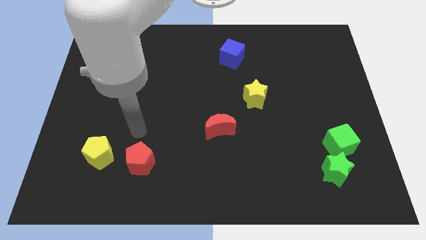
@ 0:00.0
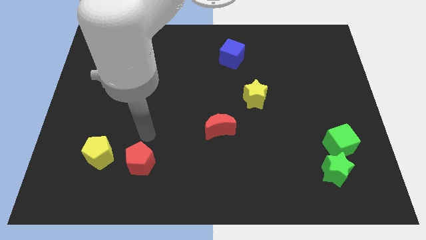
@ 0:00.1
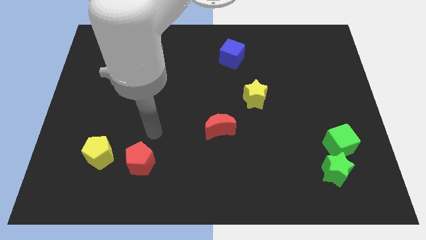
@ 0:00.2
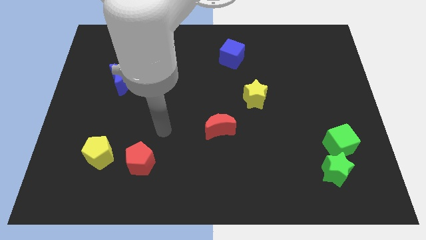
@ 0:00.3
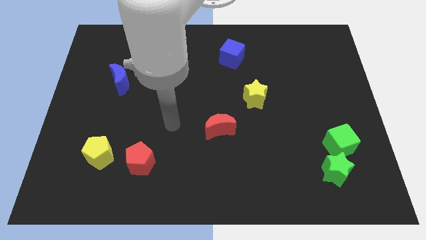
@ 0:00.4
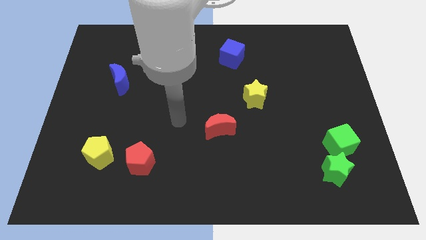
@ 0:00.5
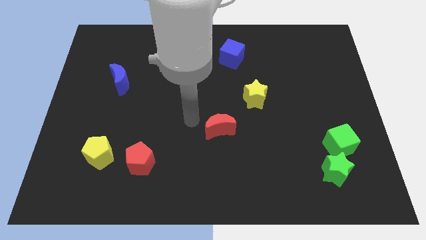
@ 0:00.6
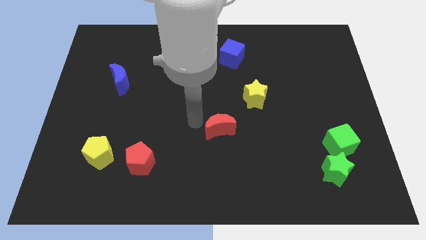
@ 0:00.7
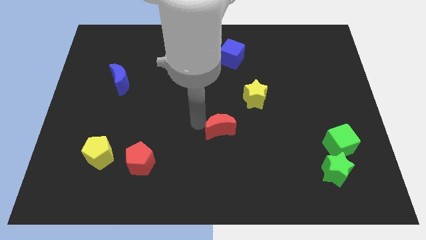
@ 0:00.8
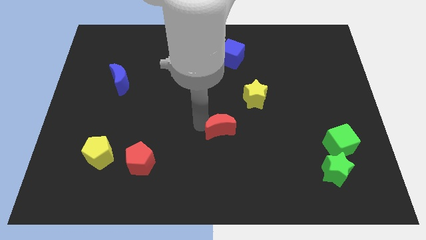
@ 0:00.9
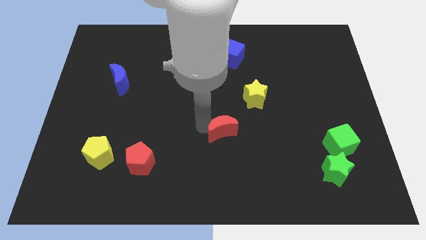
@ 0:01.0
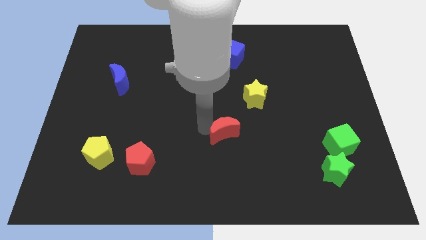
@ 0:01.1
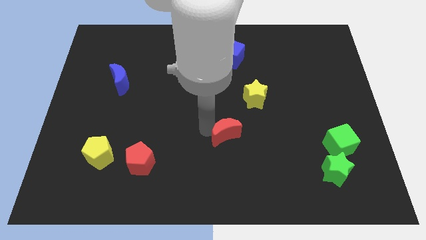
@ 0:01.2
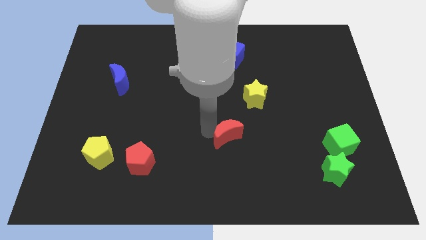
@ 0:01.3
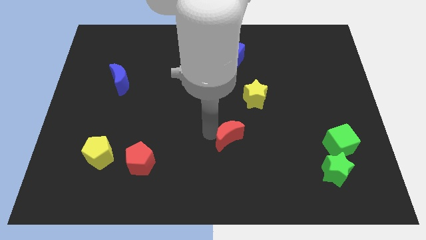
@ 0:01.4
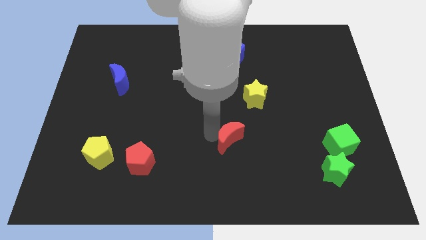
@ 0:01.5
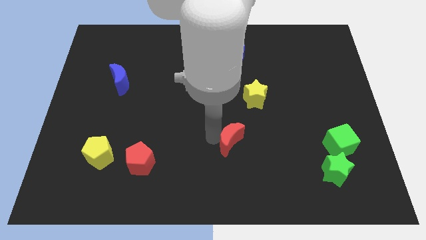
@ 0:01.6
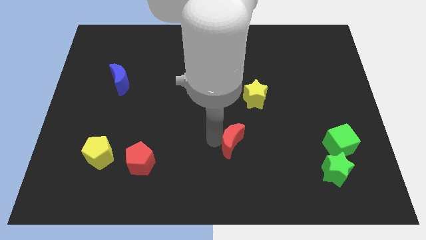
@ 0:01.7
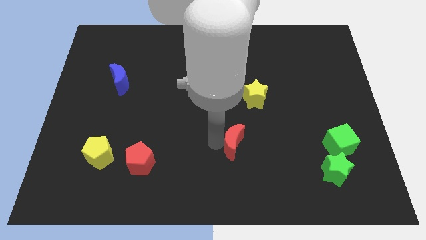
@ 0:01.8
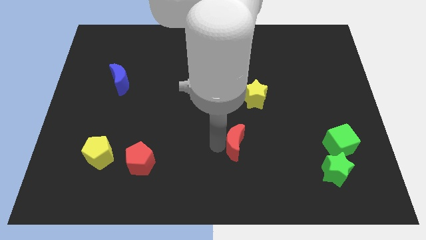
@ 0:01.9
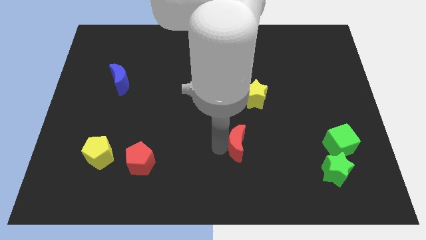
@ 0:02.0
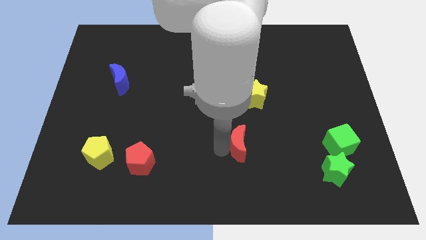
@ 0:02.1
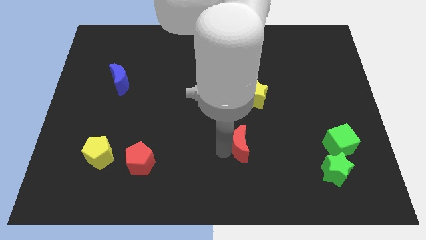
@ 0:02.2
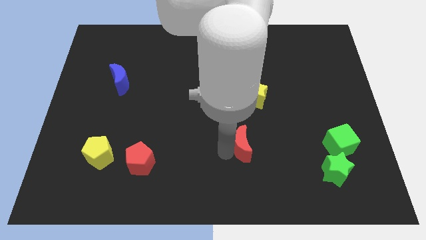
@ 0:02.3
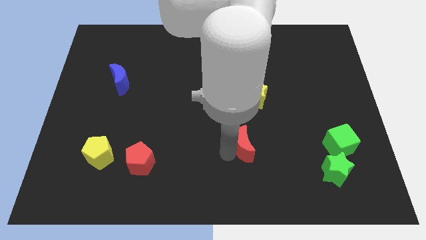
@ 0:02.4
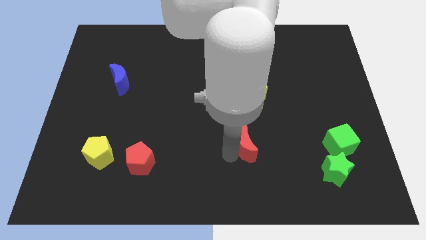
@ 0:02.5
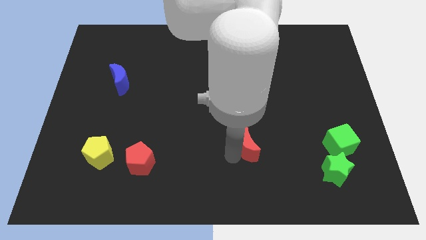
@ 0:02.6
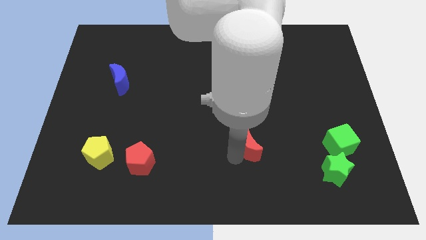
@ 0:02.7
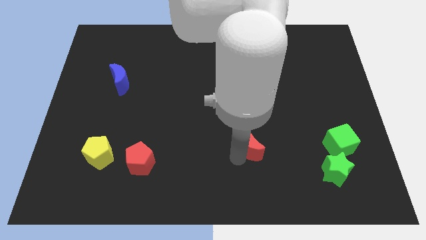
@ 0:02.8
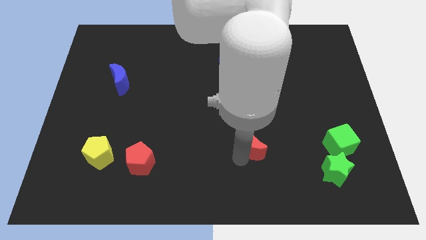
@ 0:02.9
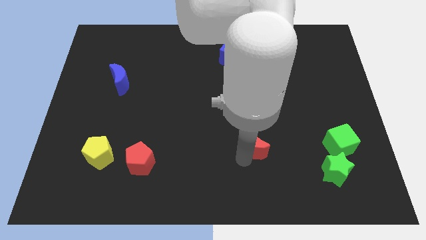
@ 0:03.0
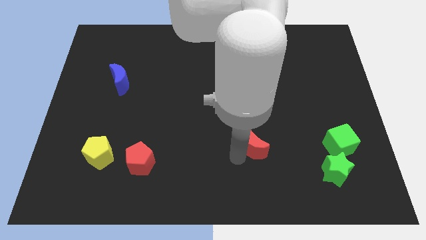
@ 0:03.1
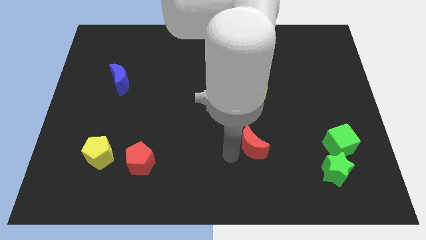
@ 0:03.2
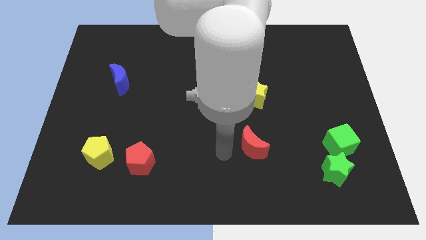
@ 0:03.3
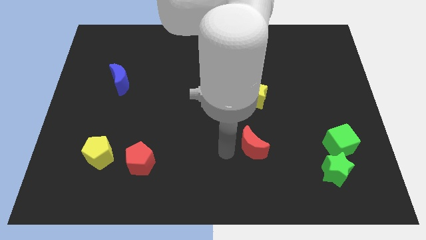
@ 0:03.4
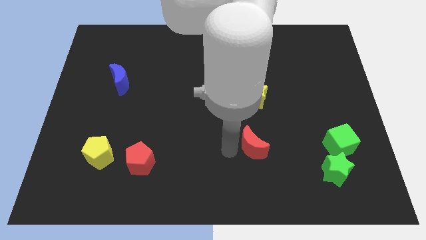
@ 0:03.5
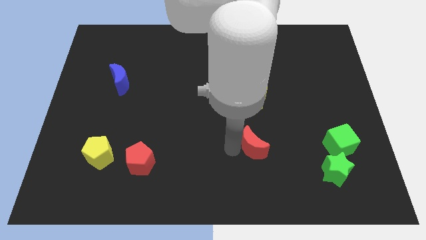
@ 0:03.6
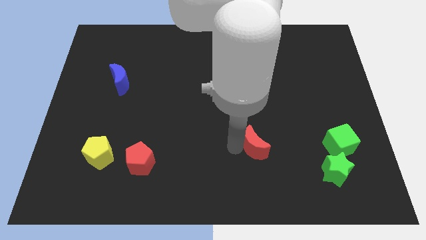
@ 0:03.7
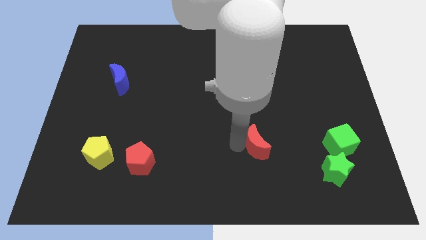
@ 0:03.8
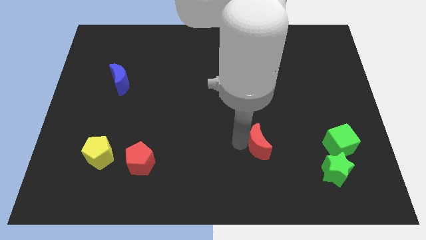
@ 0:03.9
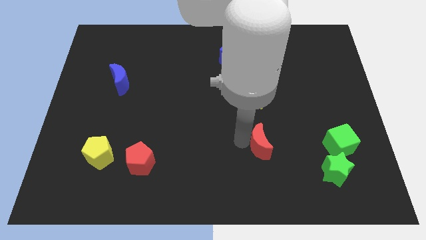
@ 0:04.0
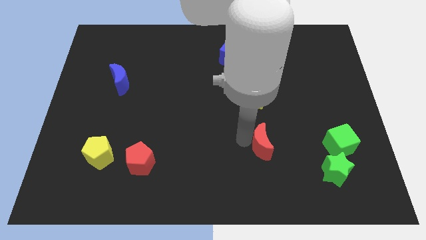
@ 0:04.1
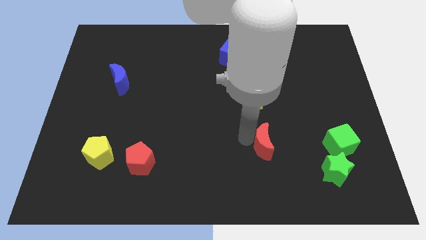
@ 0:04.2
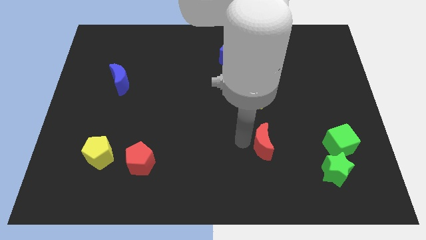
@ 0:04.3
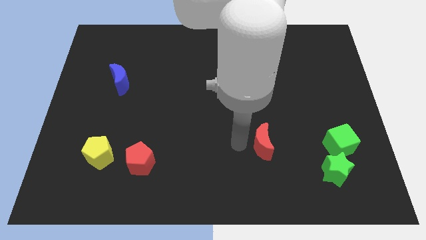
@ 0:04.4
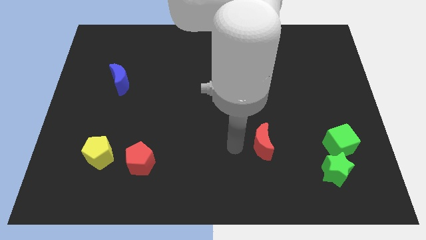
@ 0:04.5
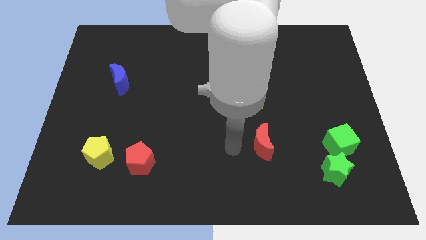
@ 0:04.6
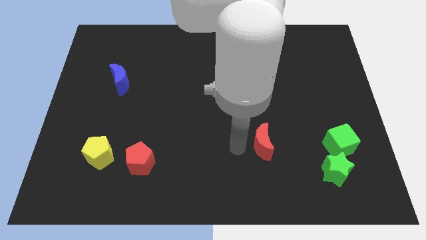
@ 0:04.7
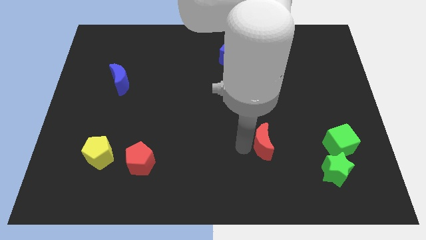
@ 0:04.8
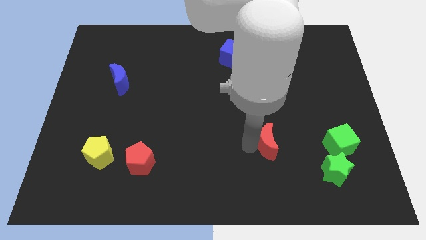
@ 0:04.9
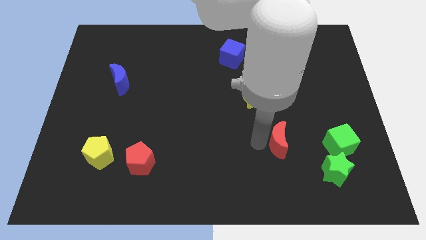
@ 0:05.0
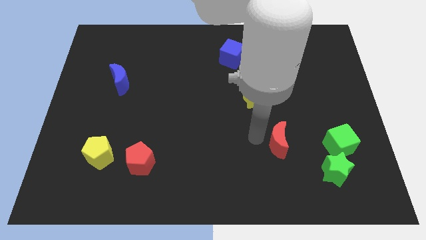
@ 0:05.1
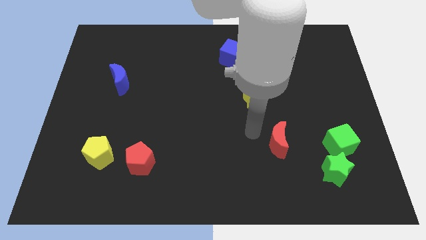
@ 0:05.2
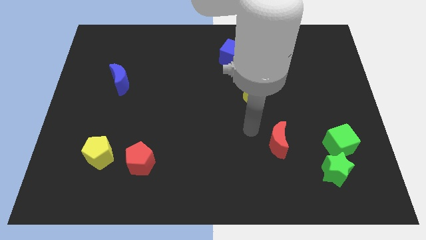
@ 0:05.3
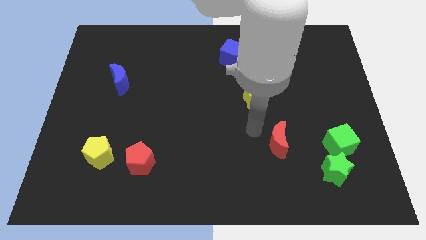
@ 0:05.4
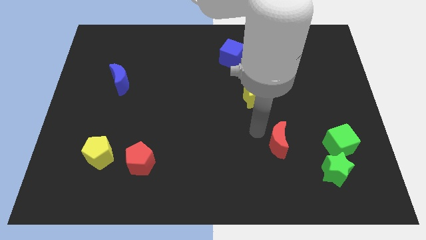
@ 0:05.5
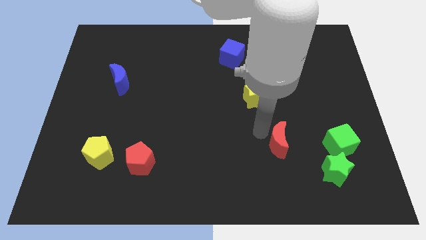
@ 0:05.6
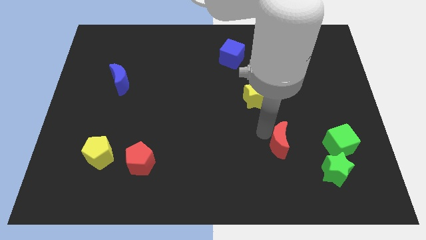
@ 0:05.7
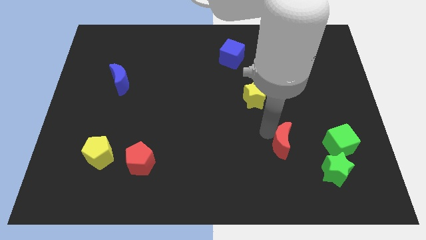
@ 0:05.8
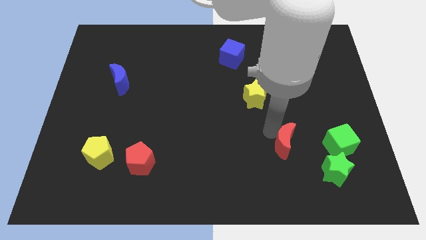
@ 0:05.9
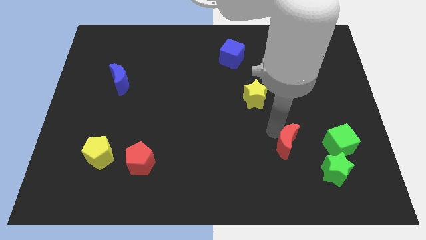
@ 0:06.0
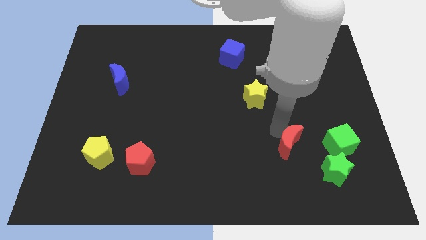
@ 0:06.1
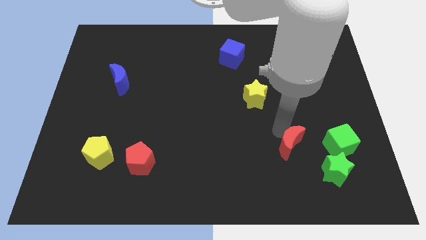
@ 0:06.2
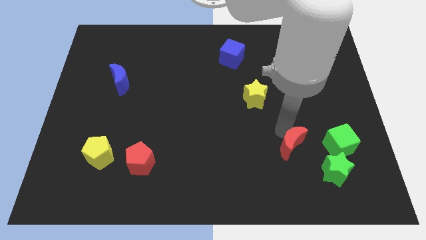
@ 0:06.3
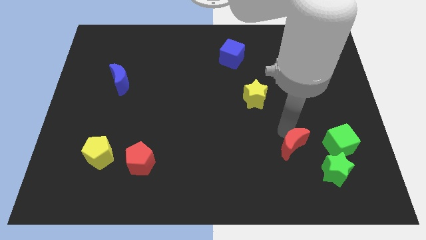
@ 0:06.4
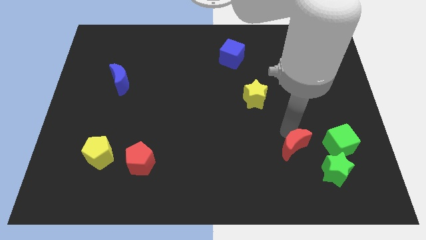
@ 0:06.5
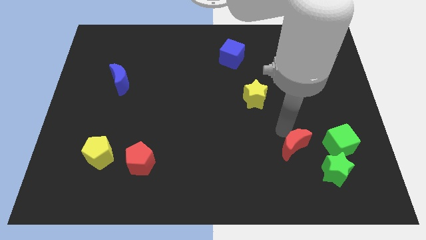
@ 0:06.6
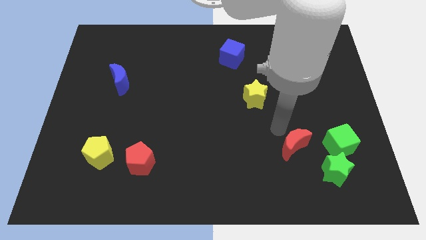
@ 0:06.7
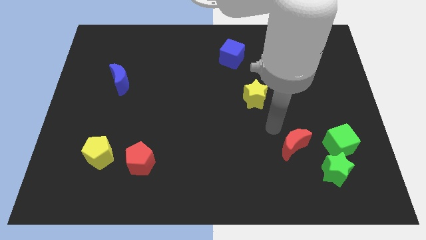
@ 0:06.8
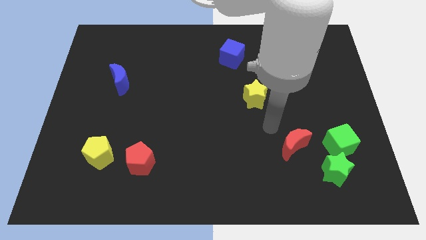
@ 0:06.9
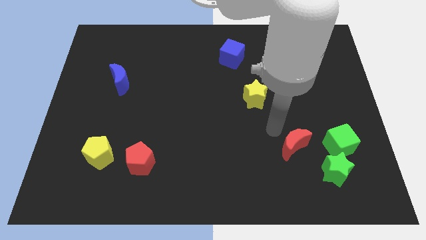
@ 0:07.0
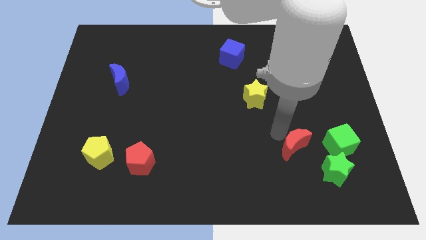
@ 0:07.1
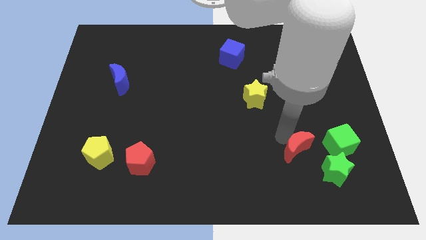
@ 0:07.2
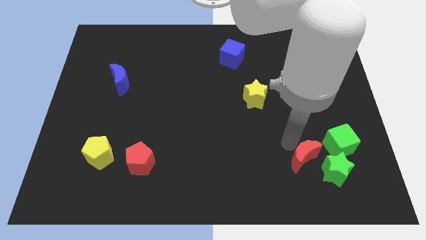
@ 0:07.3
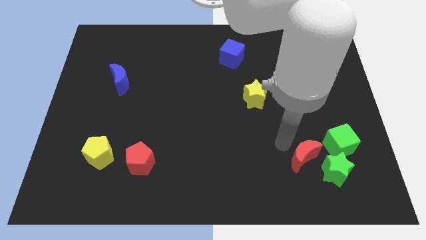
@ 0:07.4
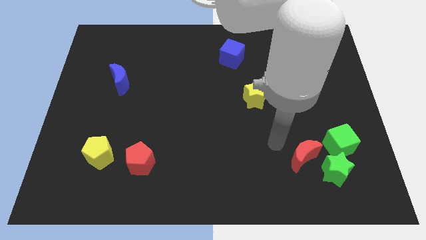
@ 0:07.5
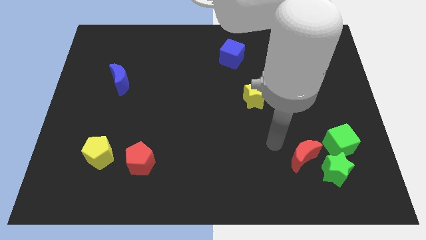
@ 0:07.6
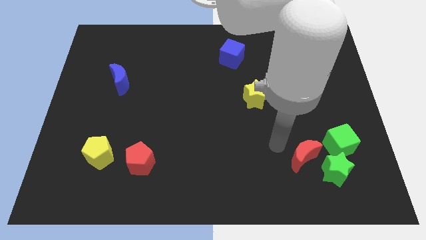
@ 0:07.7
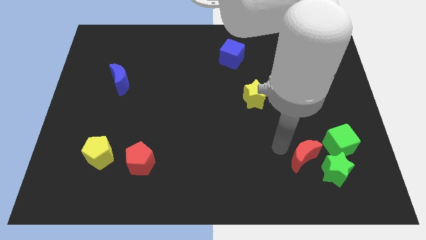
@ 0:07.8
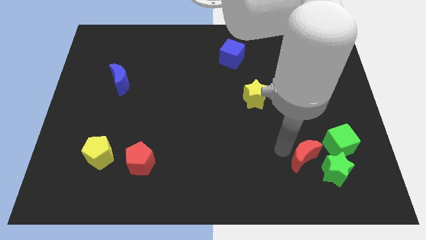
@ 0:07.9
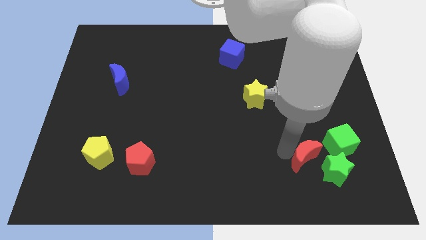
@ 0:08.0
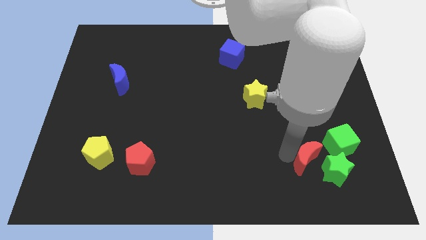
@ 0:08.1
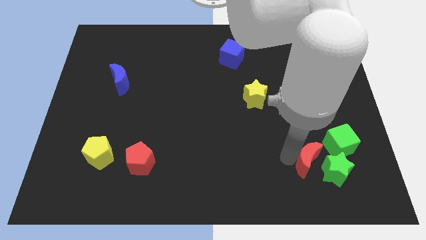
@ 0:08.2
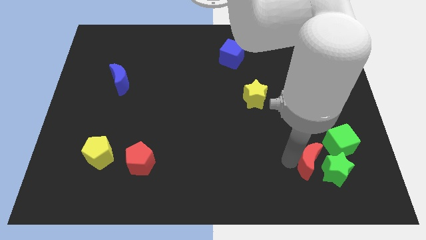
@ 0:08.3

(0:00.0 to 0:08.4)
slide the red moon close to the green star
